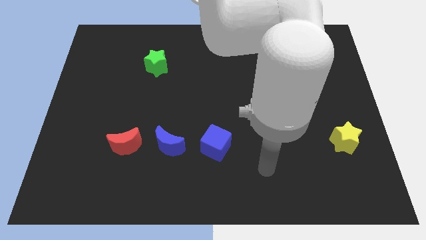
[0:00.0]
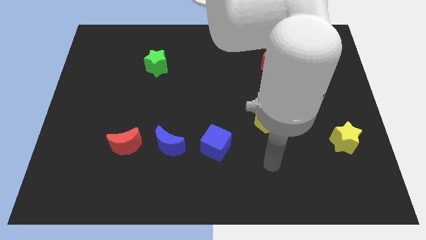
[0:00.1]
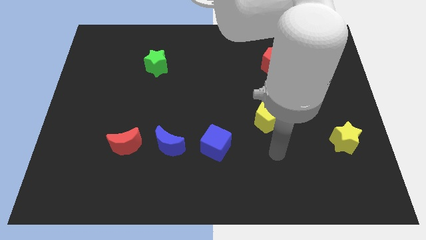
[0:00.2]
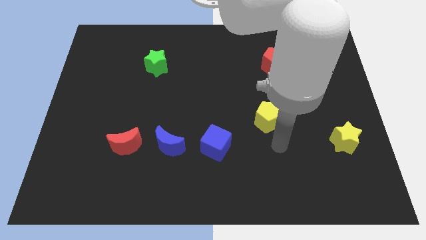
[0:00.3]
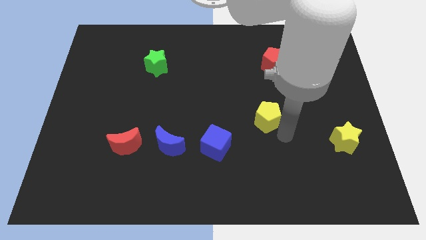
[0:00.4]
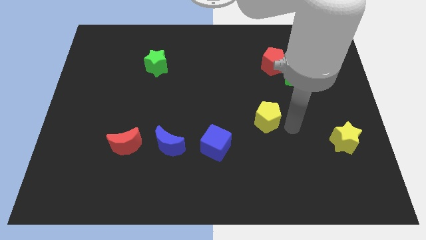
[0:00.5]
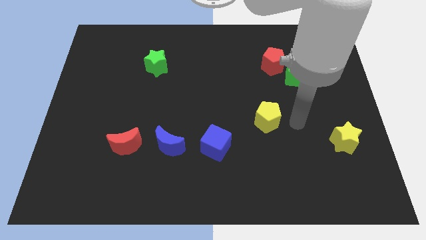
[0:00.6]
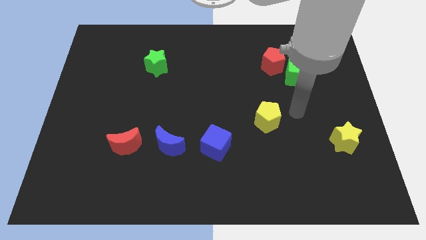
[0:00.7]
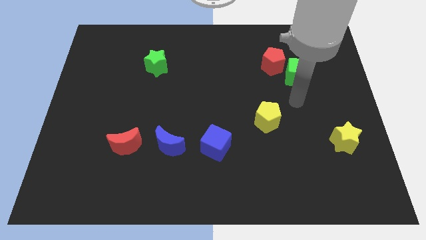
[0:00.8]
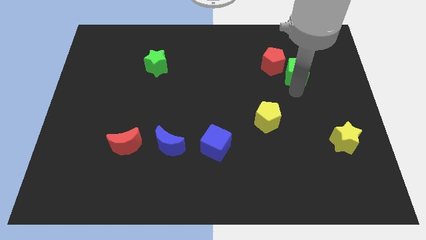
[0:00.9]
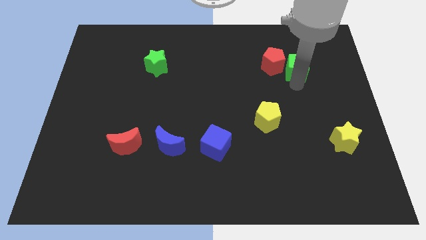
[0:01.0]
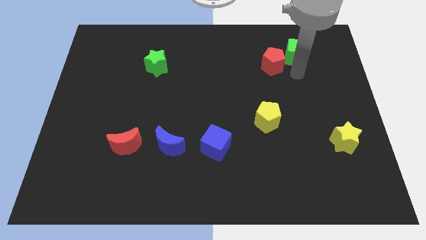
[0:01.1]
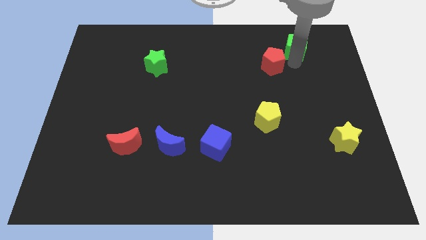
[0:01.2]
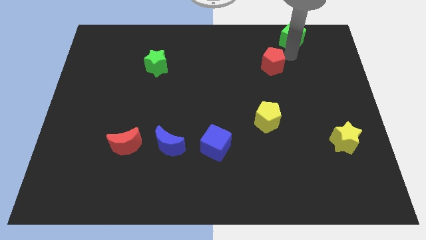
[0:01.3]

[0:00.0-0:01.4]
separate the red pentagon from the green cube

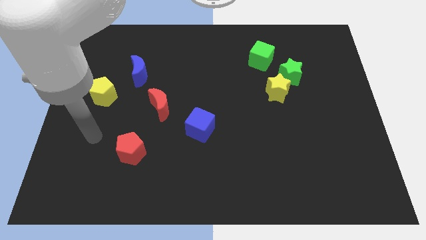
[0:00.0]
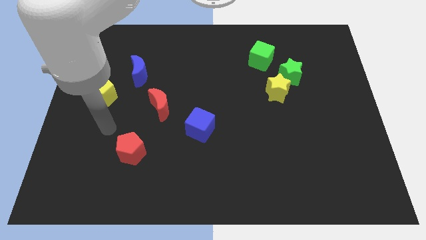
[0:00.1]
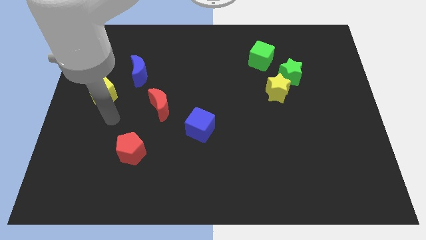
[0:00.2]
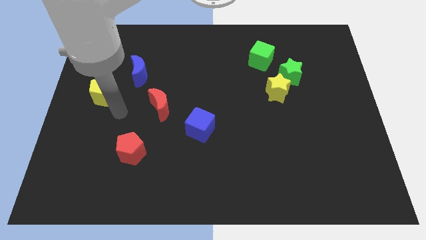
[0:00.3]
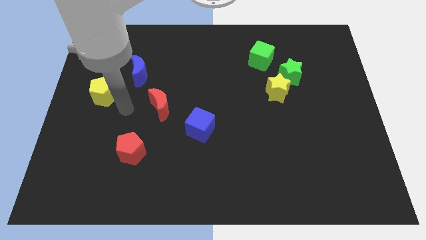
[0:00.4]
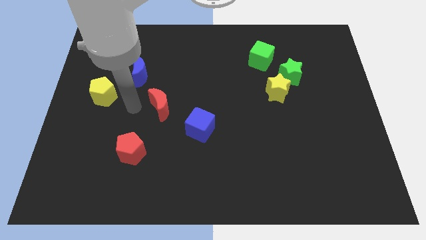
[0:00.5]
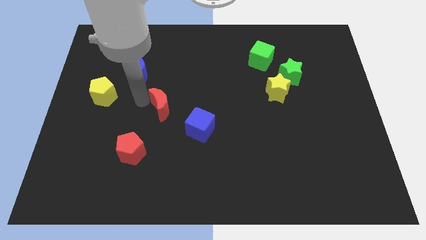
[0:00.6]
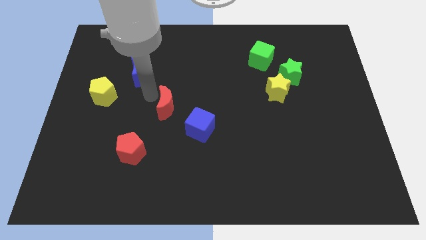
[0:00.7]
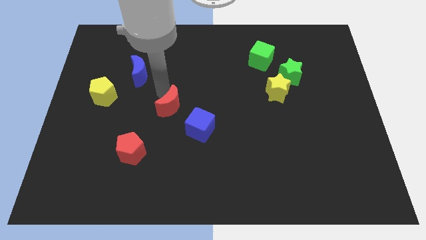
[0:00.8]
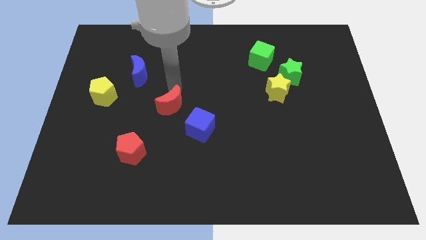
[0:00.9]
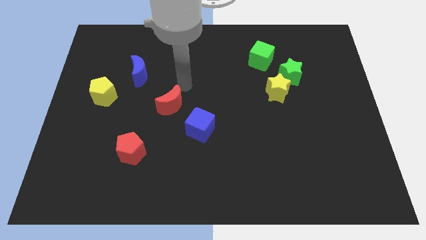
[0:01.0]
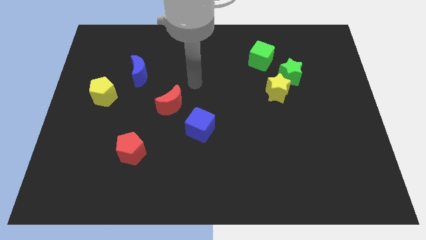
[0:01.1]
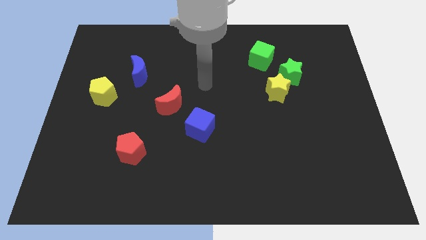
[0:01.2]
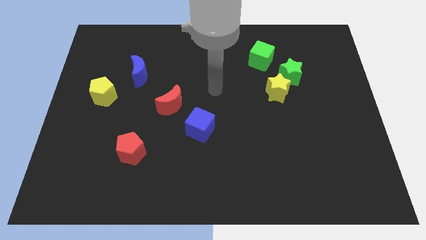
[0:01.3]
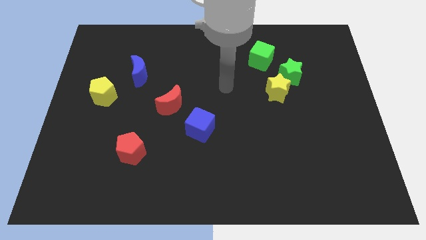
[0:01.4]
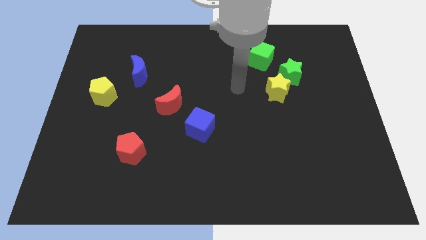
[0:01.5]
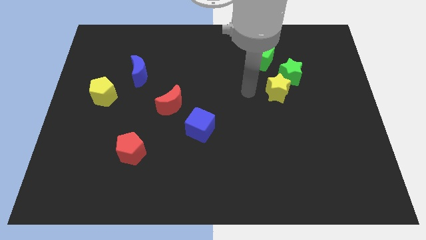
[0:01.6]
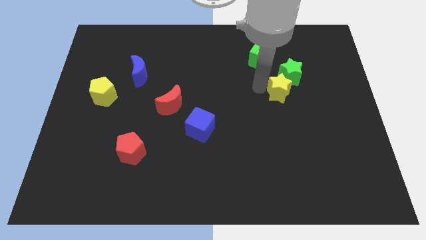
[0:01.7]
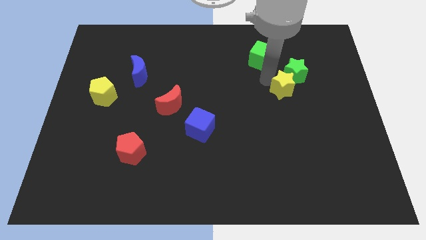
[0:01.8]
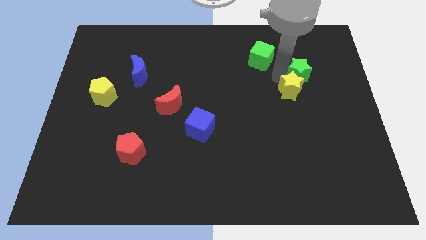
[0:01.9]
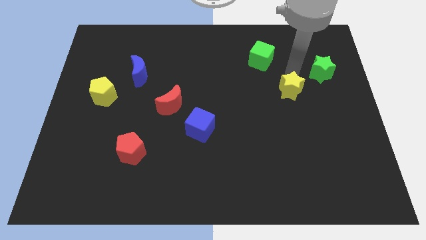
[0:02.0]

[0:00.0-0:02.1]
pull the yellow star apart from the green star

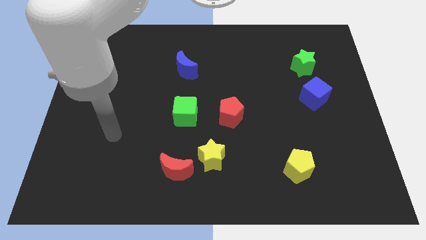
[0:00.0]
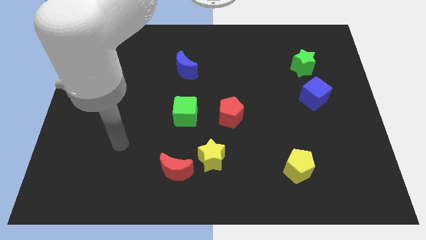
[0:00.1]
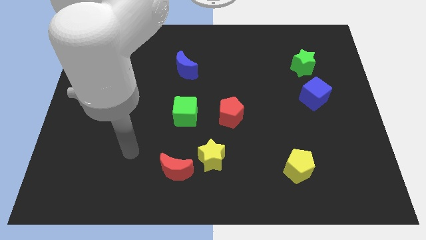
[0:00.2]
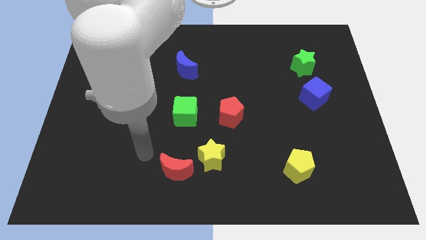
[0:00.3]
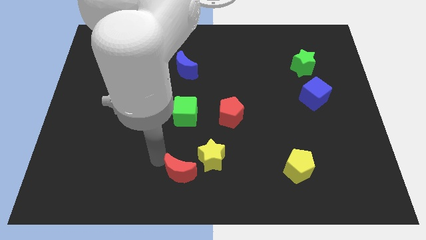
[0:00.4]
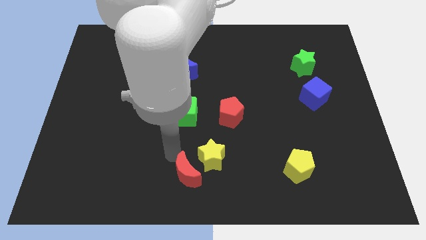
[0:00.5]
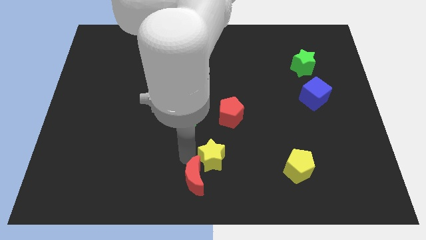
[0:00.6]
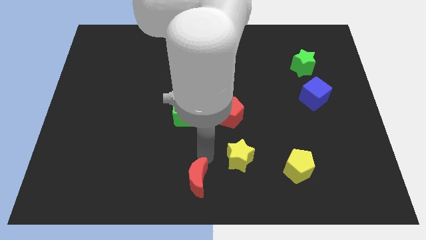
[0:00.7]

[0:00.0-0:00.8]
move the red moon away from the yellow star

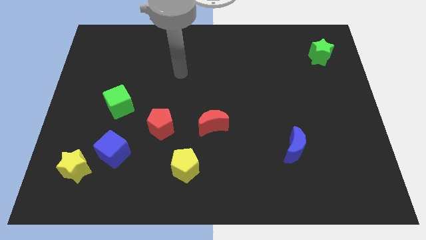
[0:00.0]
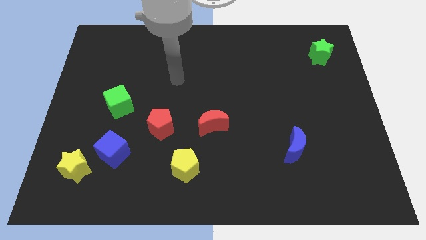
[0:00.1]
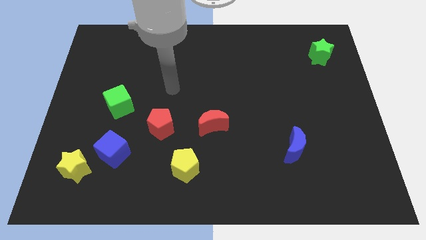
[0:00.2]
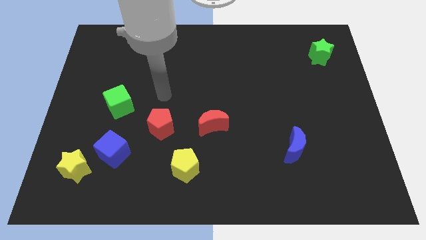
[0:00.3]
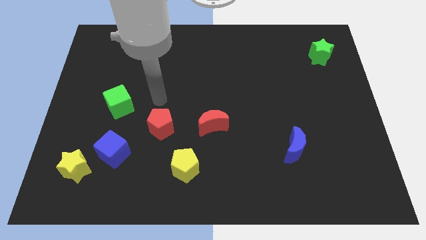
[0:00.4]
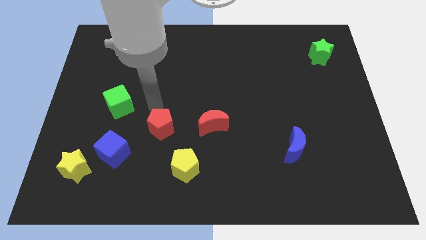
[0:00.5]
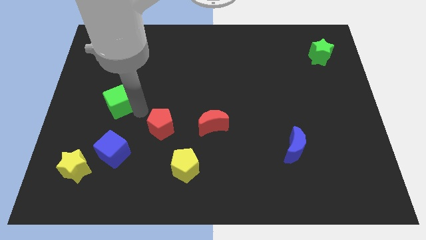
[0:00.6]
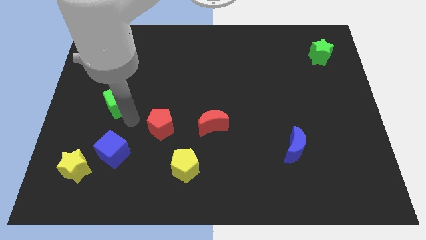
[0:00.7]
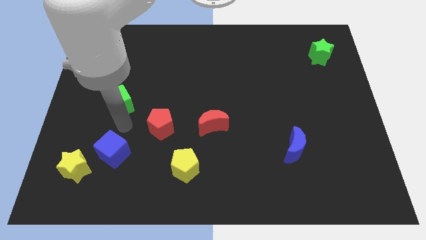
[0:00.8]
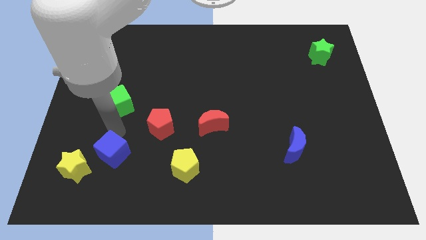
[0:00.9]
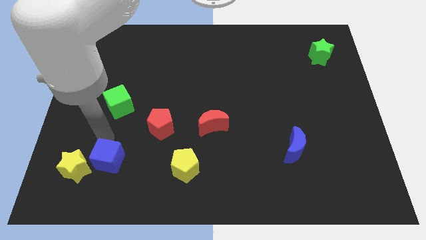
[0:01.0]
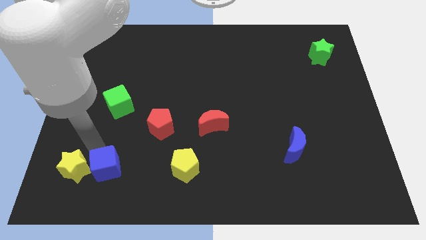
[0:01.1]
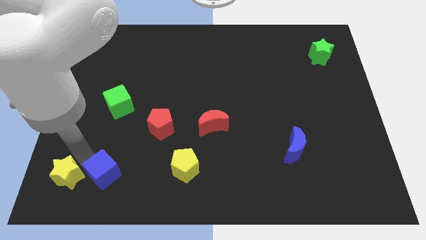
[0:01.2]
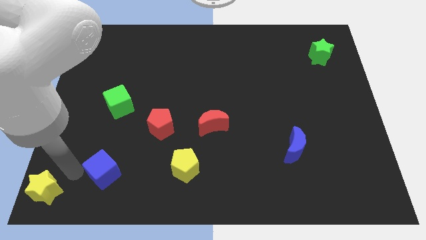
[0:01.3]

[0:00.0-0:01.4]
separate the blue cube from the yellow star

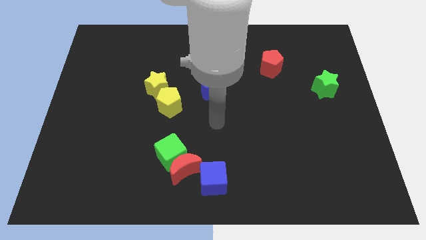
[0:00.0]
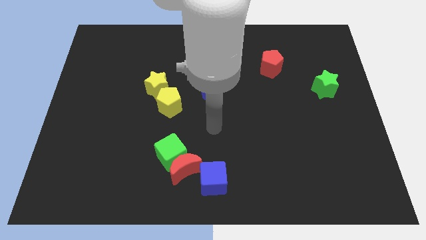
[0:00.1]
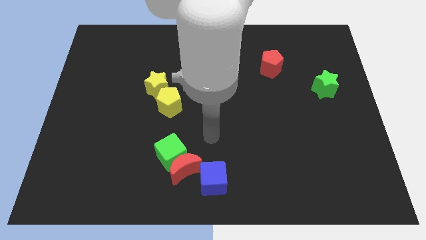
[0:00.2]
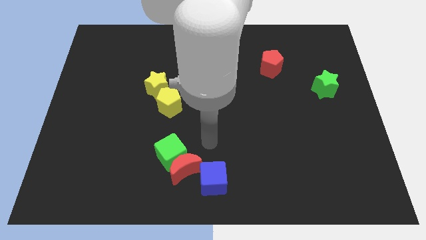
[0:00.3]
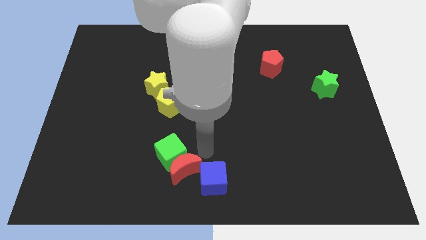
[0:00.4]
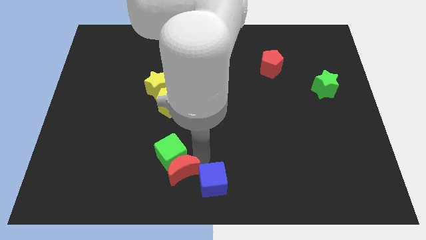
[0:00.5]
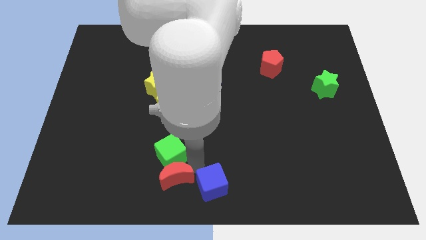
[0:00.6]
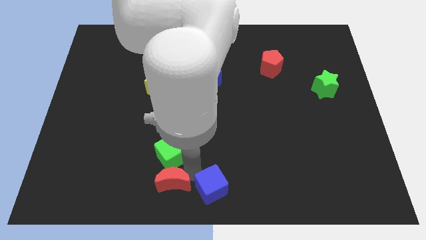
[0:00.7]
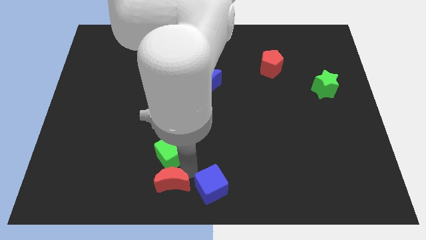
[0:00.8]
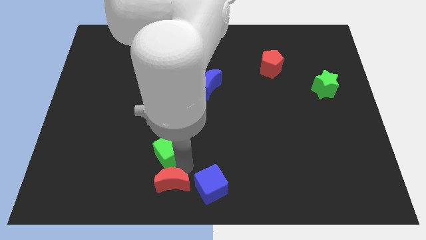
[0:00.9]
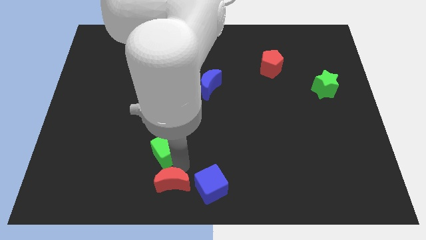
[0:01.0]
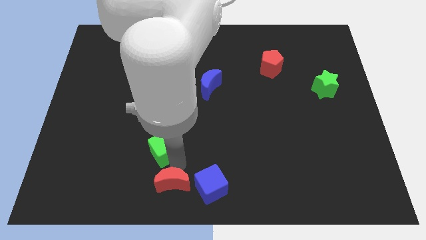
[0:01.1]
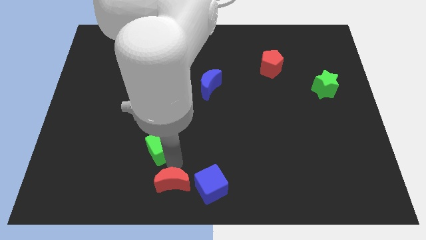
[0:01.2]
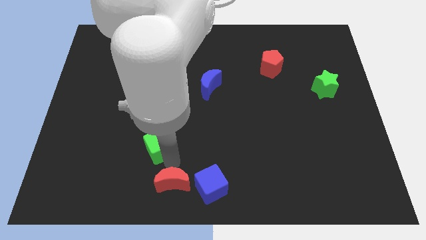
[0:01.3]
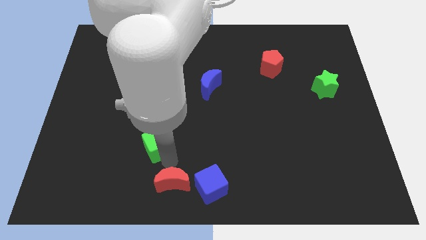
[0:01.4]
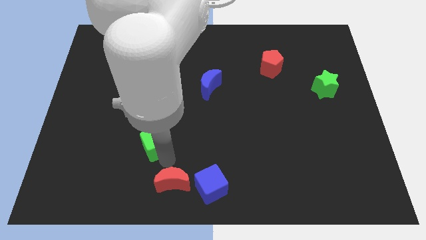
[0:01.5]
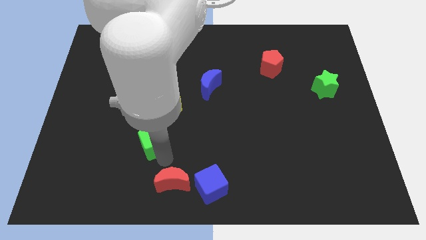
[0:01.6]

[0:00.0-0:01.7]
move the green cube away from the red moon

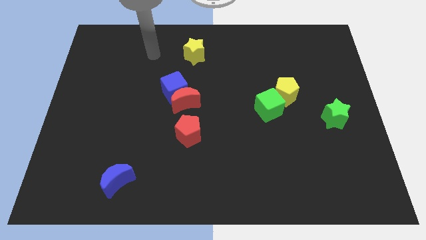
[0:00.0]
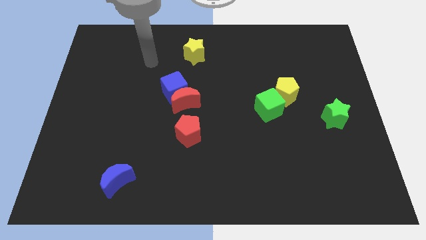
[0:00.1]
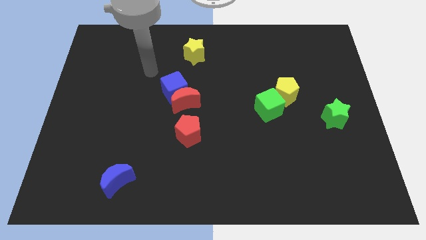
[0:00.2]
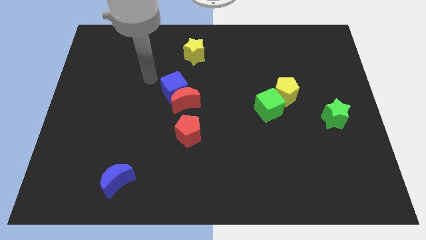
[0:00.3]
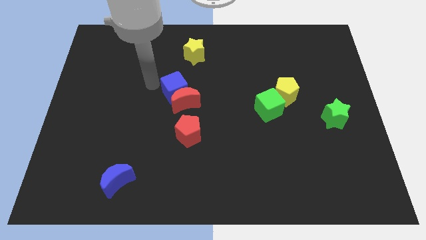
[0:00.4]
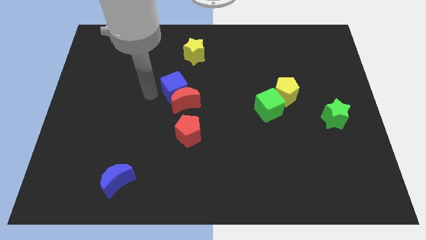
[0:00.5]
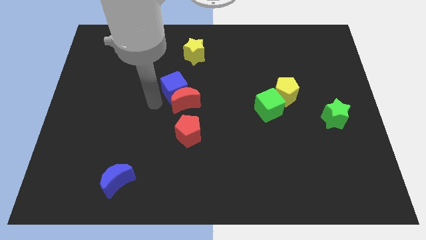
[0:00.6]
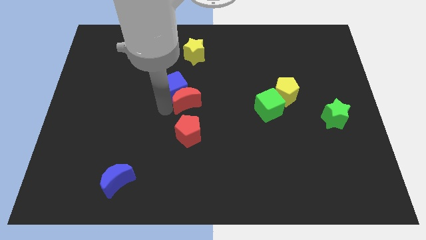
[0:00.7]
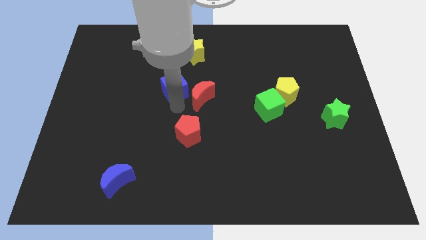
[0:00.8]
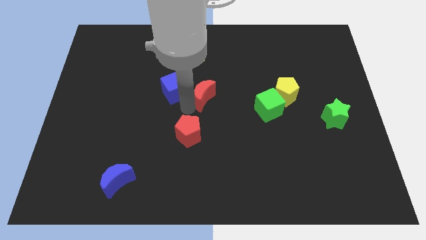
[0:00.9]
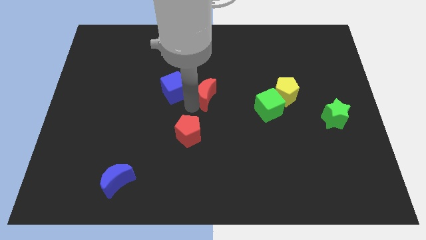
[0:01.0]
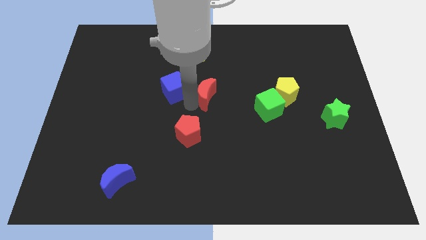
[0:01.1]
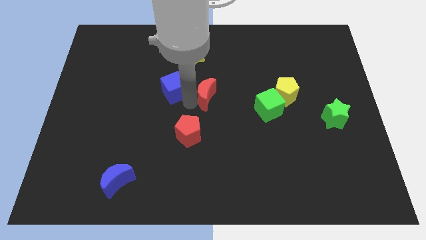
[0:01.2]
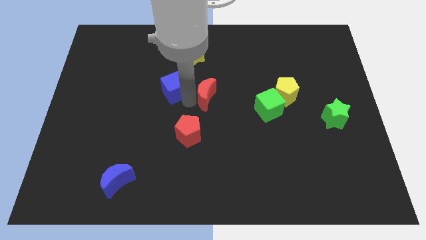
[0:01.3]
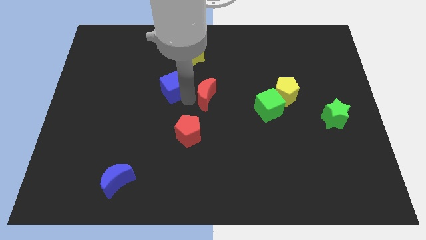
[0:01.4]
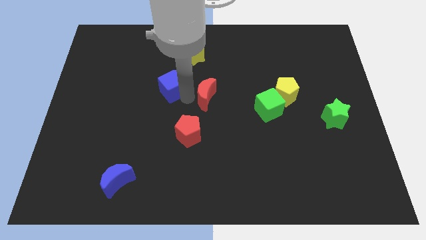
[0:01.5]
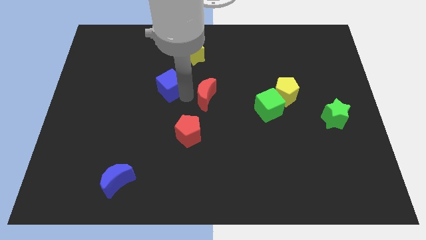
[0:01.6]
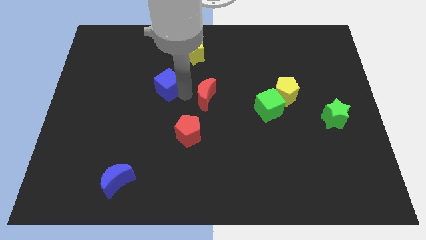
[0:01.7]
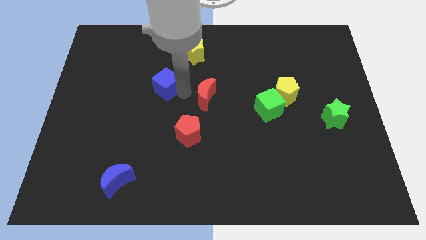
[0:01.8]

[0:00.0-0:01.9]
pull the blue cube apart from the red moon
